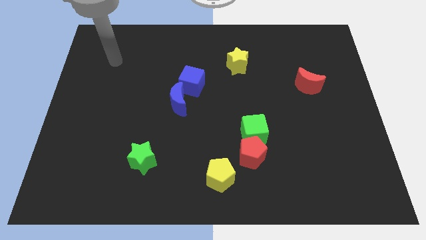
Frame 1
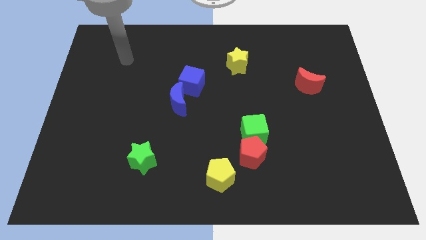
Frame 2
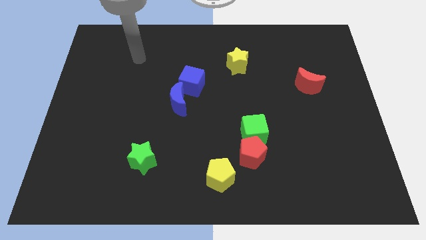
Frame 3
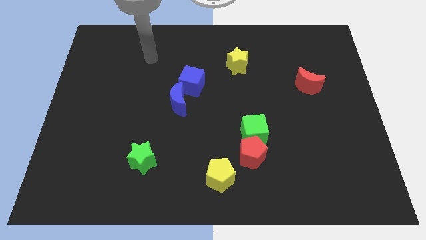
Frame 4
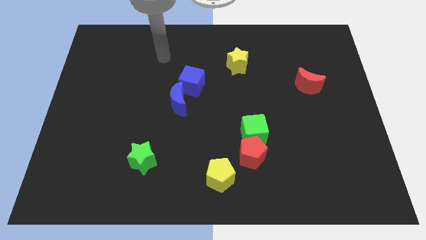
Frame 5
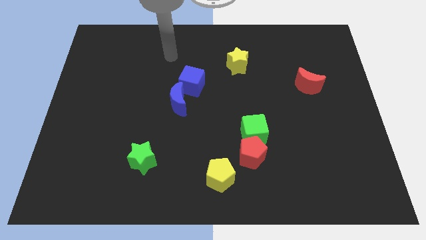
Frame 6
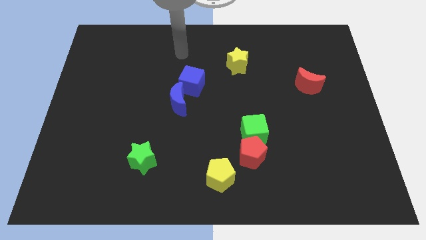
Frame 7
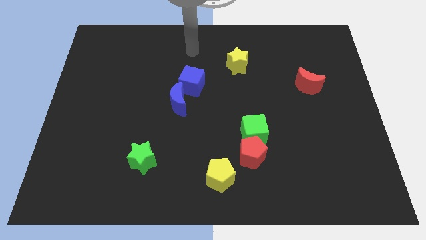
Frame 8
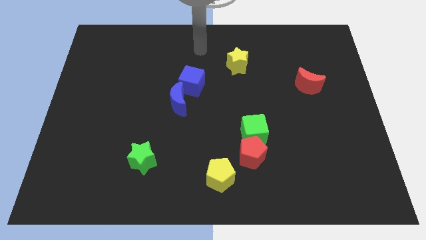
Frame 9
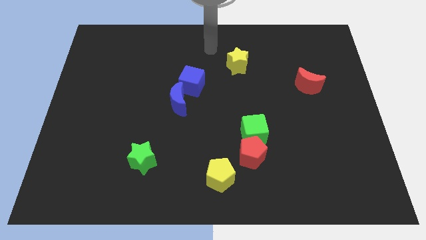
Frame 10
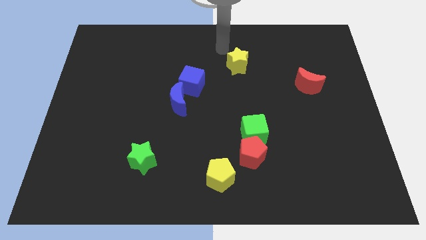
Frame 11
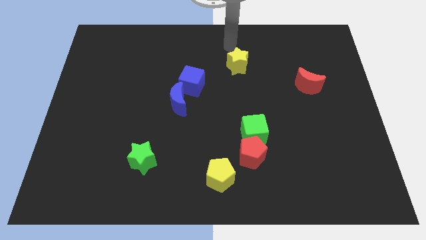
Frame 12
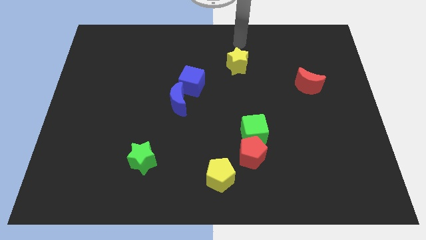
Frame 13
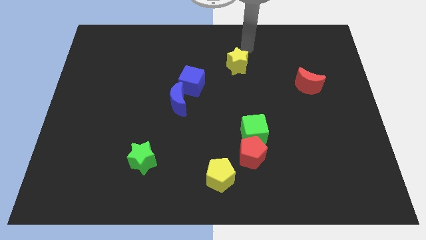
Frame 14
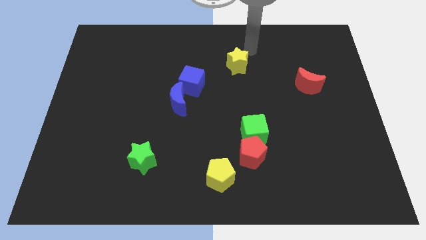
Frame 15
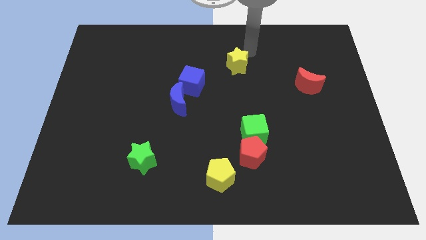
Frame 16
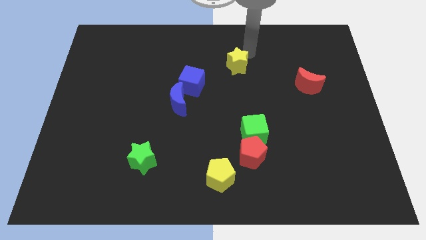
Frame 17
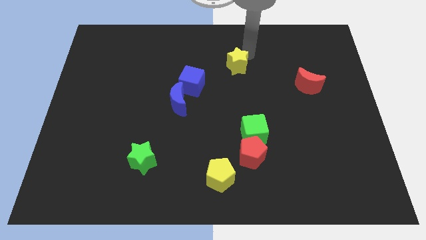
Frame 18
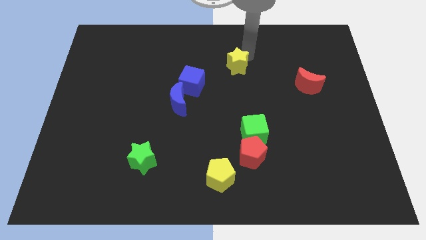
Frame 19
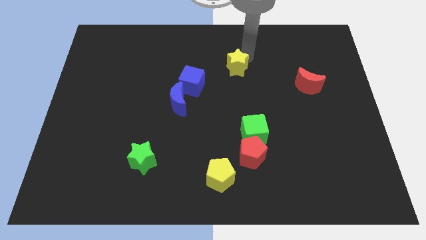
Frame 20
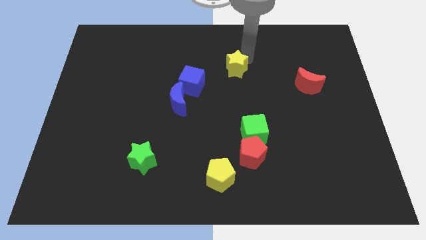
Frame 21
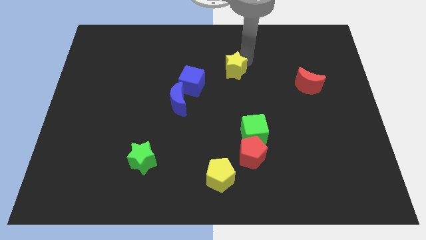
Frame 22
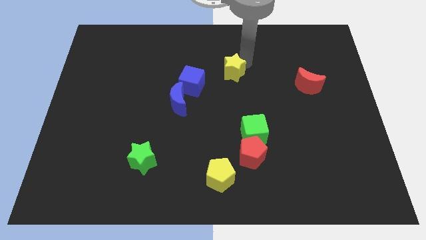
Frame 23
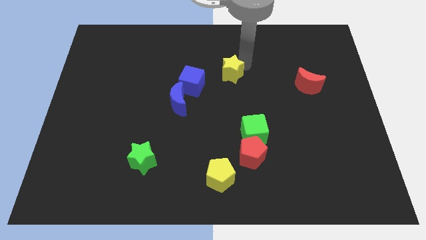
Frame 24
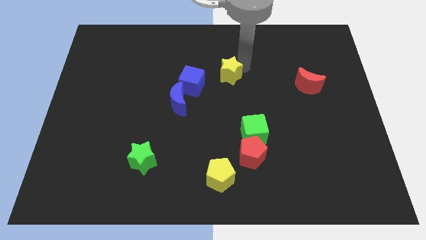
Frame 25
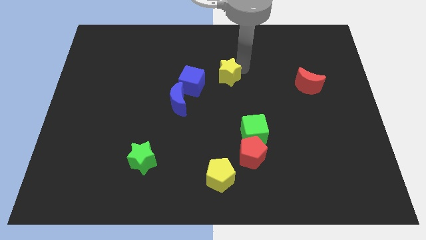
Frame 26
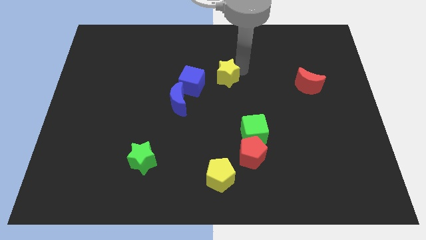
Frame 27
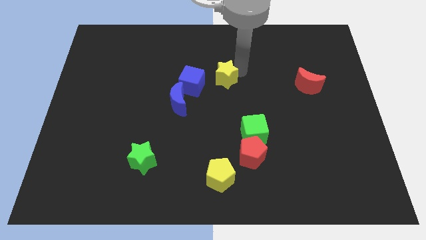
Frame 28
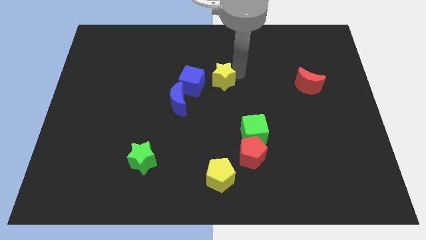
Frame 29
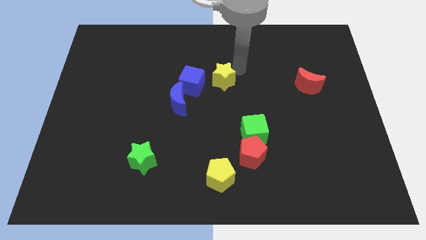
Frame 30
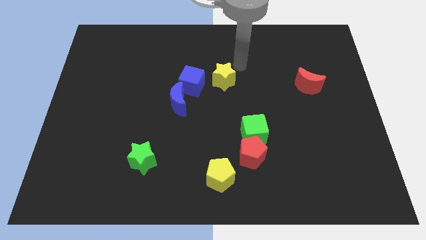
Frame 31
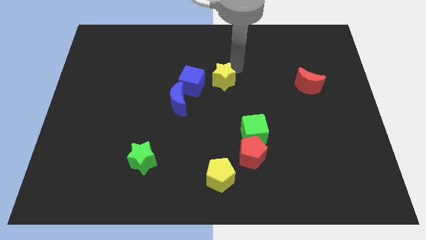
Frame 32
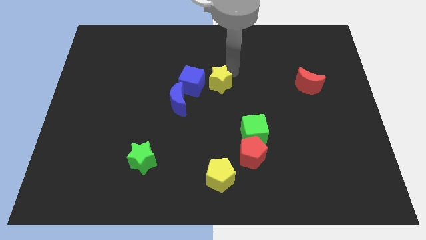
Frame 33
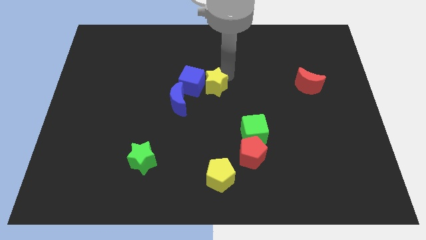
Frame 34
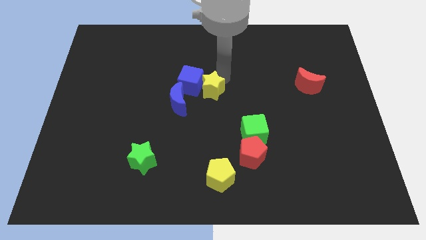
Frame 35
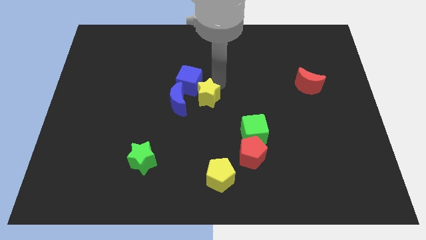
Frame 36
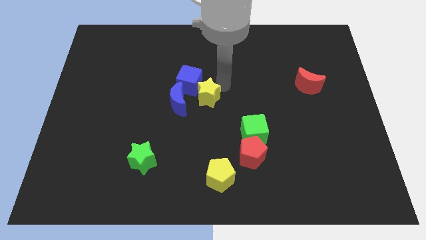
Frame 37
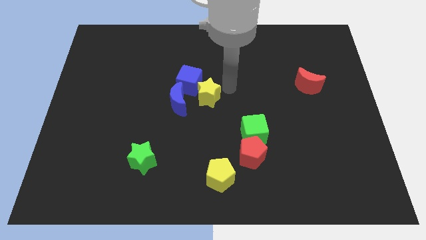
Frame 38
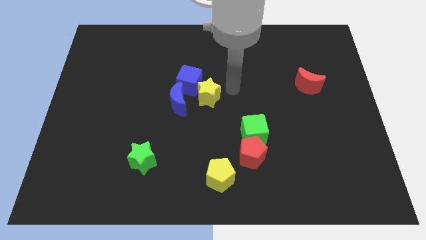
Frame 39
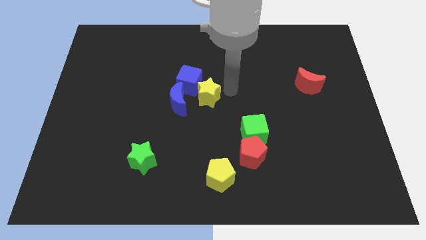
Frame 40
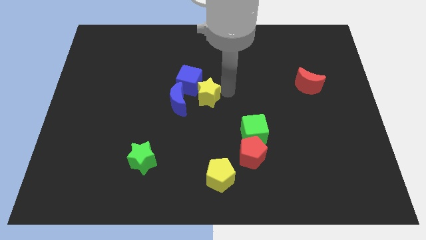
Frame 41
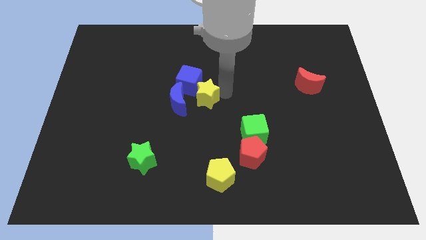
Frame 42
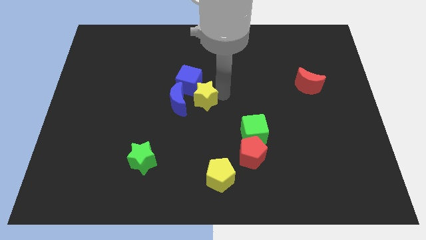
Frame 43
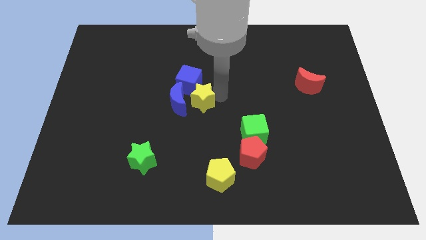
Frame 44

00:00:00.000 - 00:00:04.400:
put the yellow star towards the blue moon

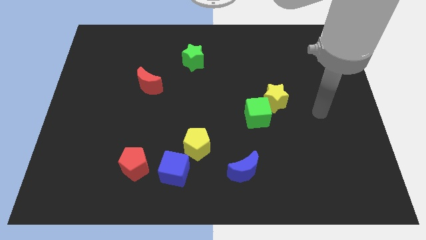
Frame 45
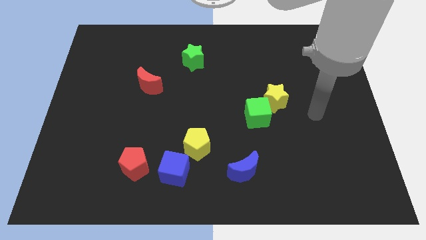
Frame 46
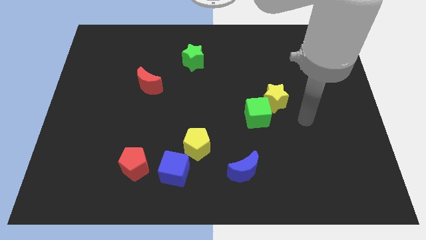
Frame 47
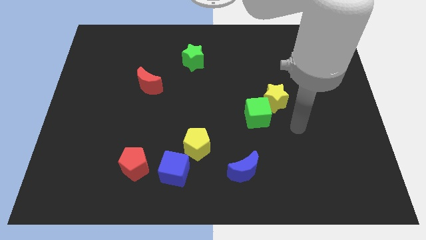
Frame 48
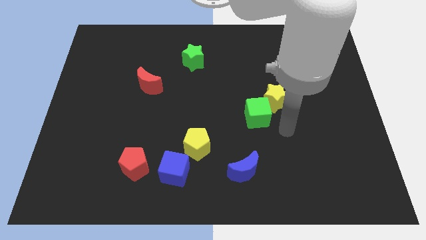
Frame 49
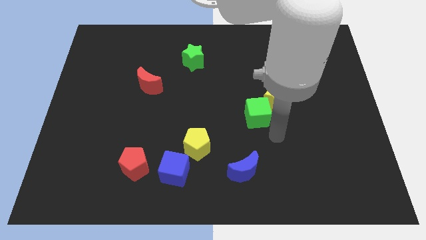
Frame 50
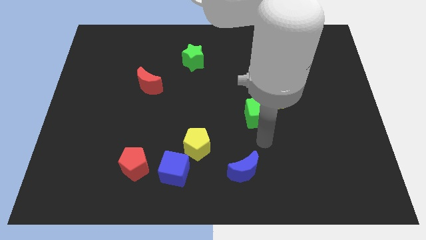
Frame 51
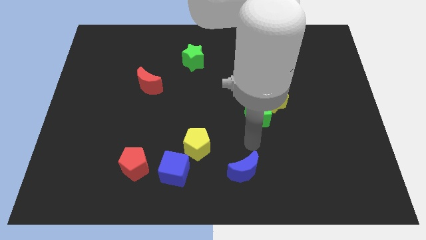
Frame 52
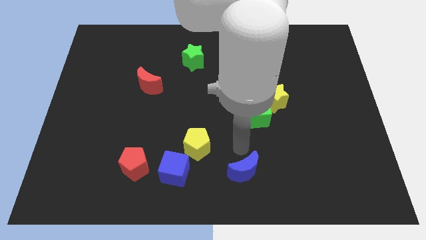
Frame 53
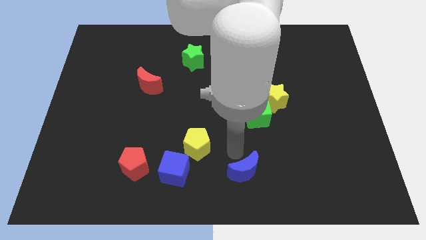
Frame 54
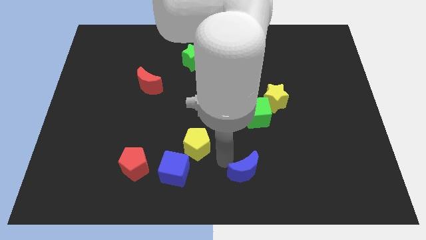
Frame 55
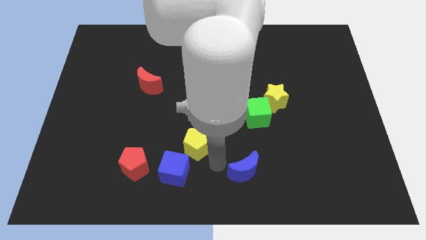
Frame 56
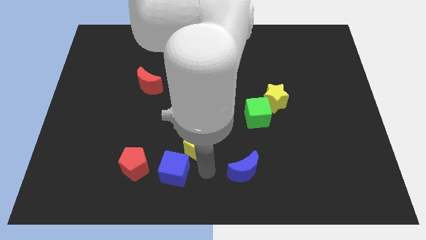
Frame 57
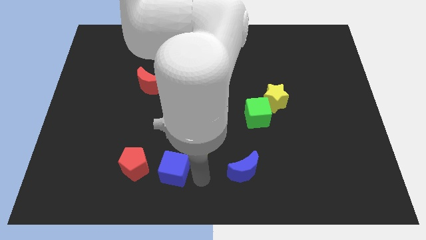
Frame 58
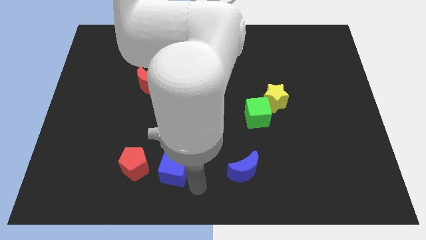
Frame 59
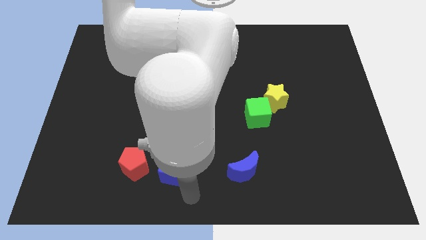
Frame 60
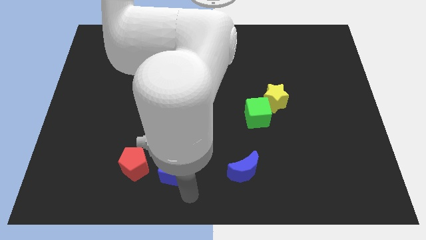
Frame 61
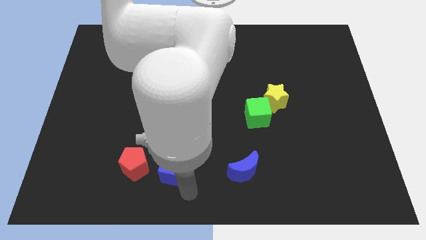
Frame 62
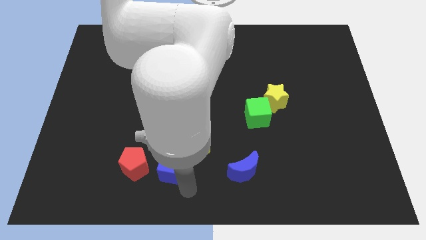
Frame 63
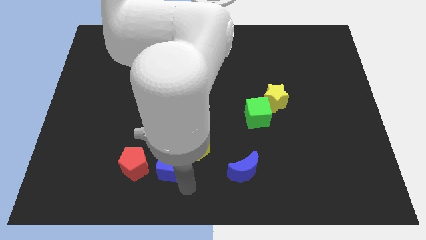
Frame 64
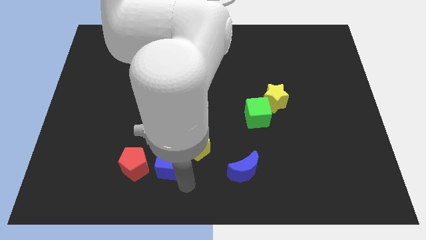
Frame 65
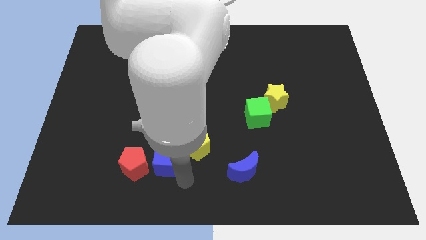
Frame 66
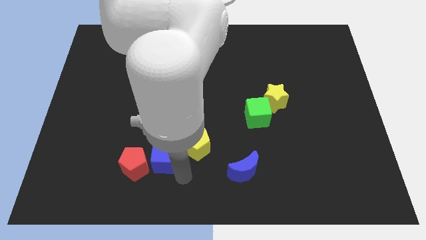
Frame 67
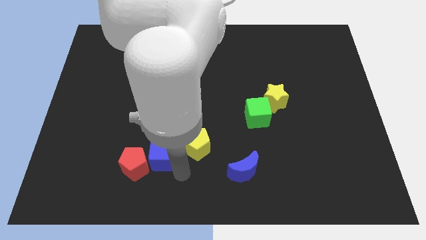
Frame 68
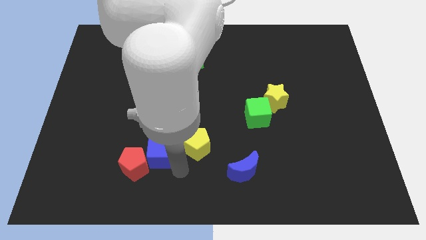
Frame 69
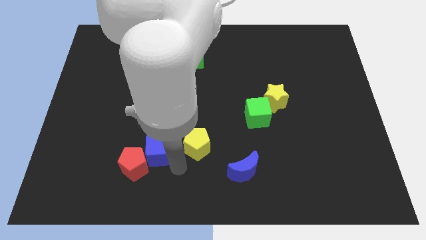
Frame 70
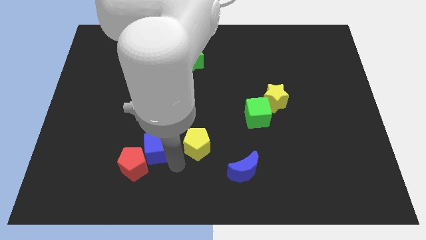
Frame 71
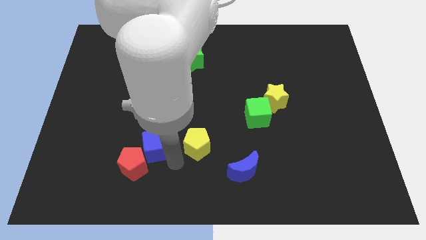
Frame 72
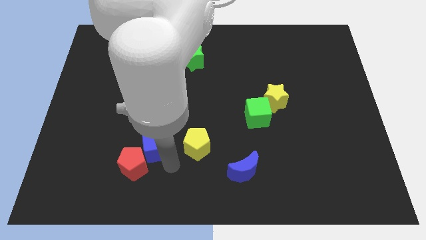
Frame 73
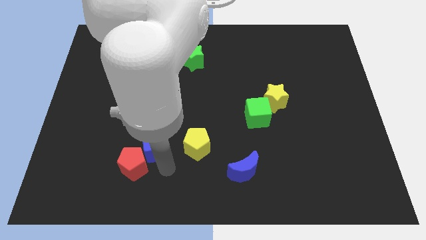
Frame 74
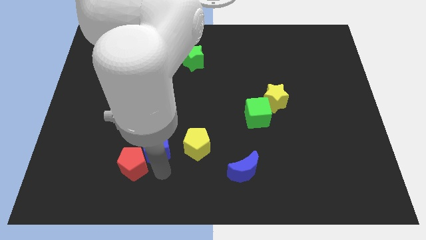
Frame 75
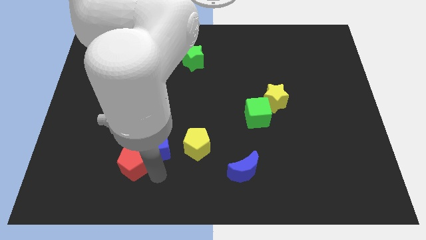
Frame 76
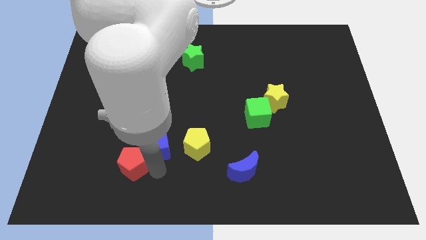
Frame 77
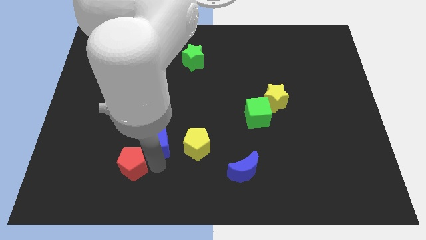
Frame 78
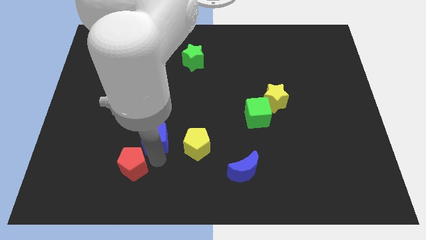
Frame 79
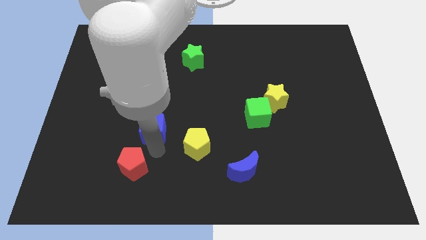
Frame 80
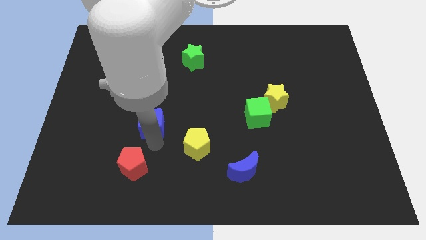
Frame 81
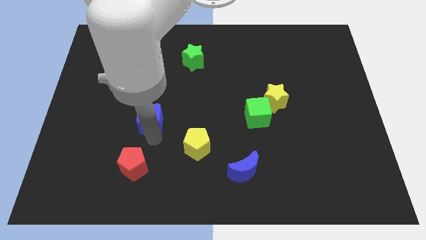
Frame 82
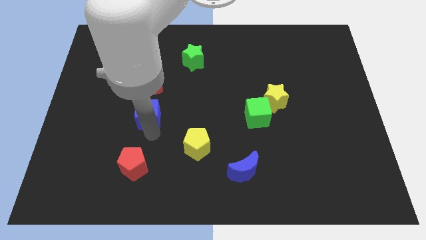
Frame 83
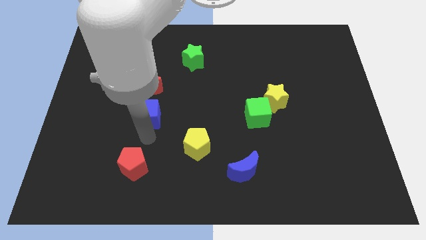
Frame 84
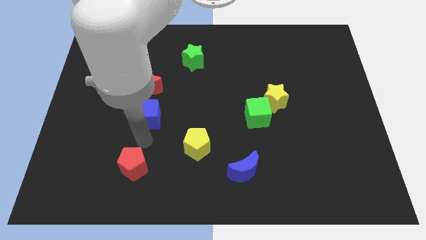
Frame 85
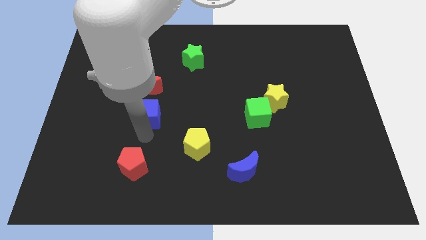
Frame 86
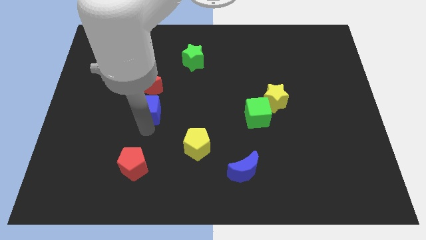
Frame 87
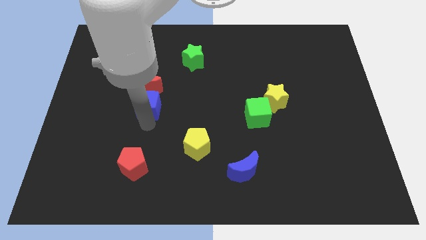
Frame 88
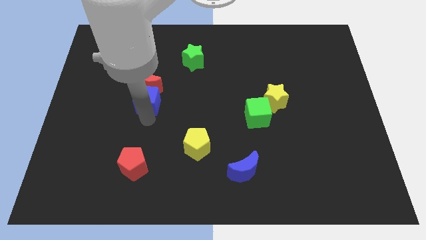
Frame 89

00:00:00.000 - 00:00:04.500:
move the blue cube to the red moon
